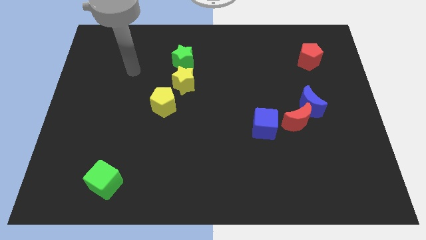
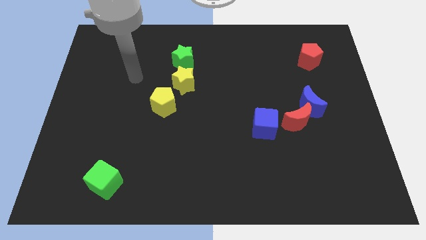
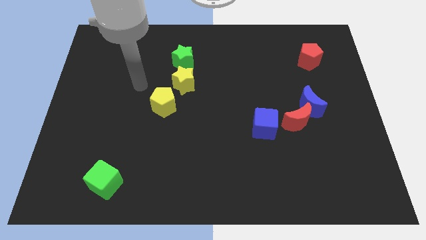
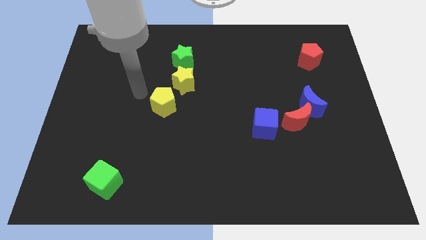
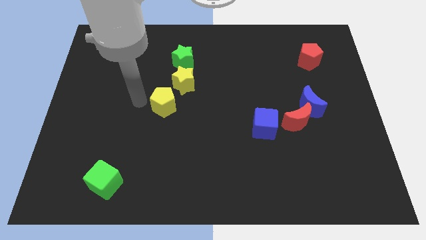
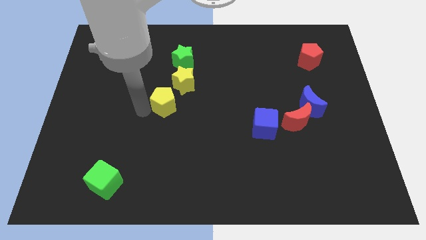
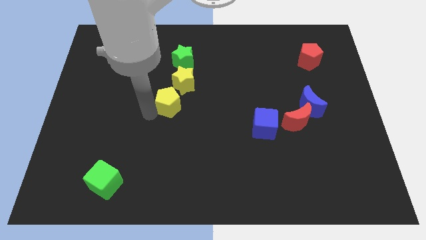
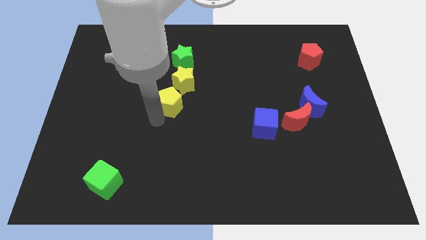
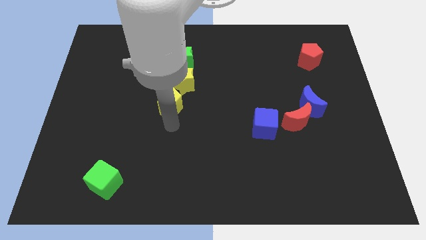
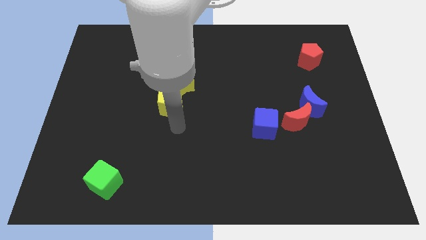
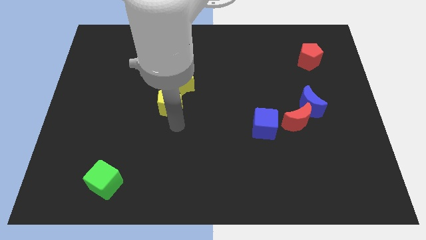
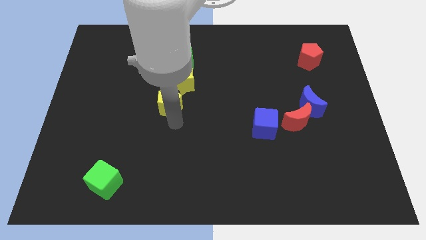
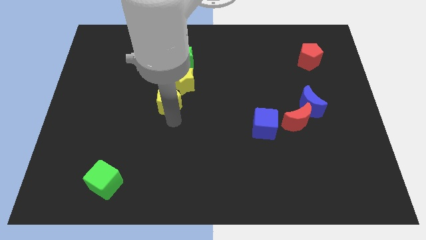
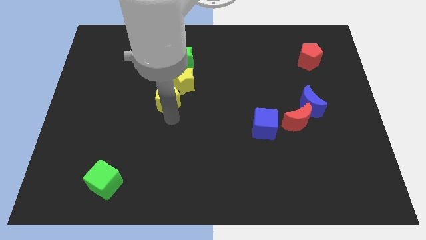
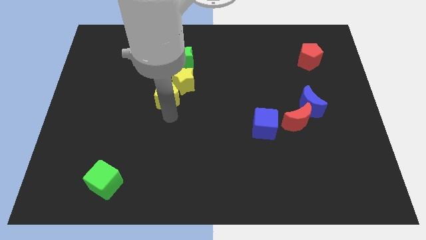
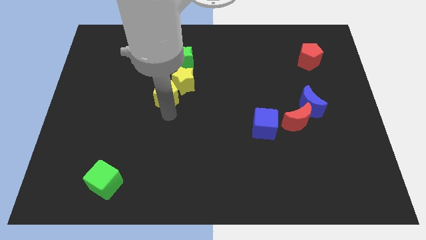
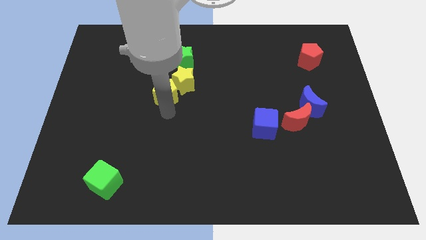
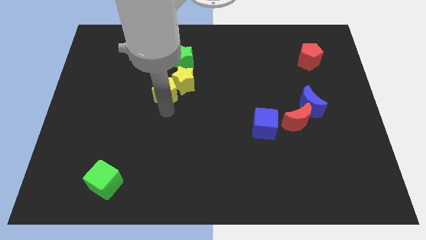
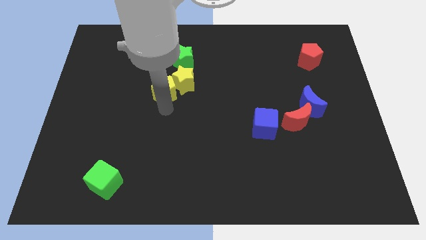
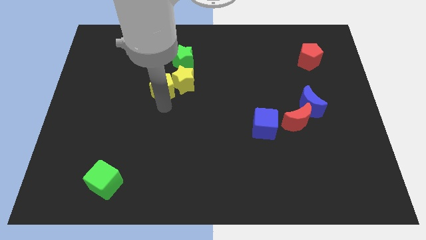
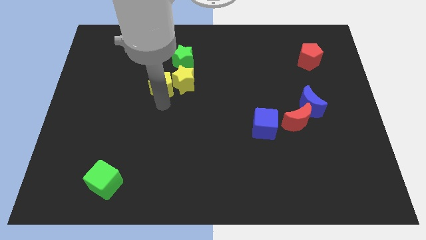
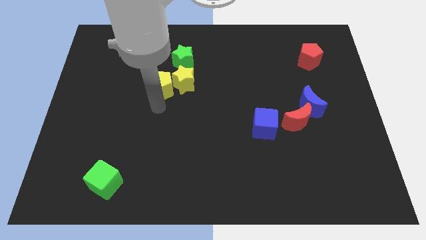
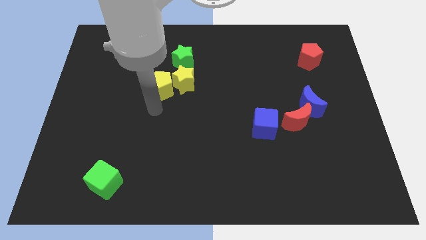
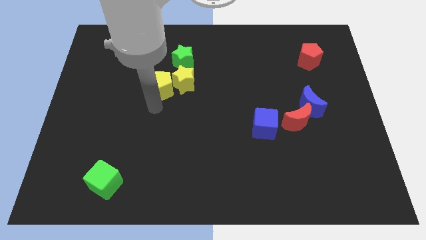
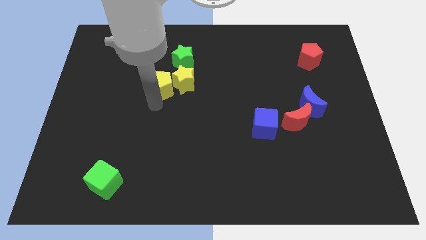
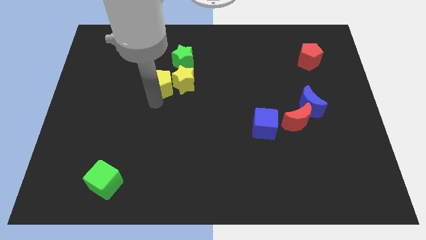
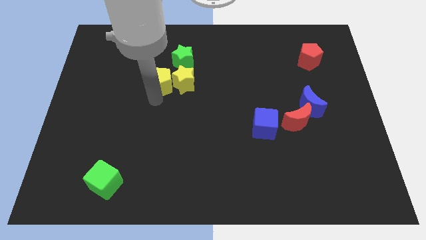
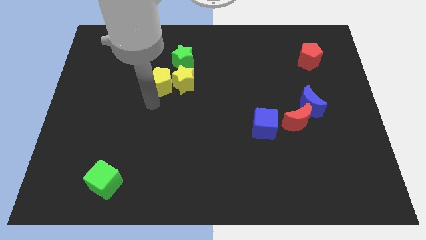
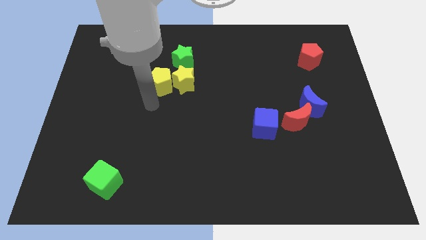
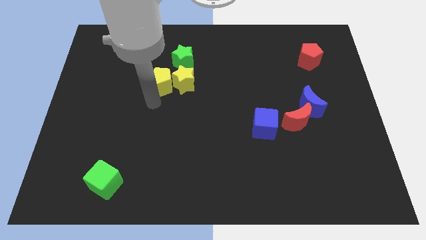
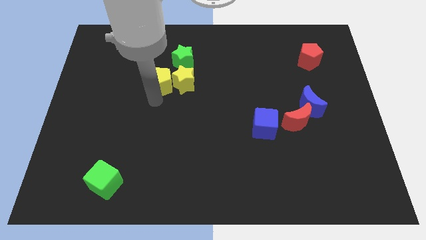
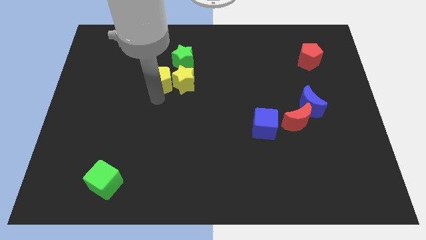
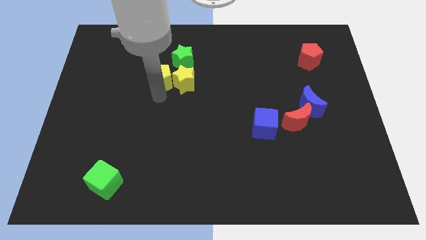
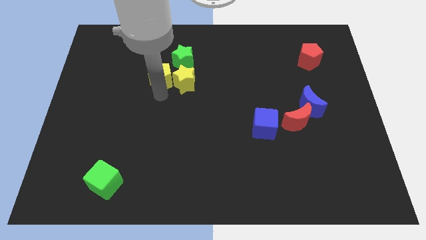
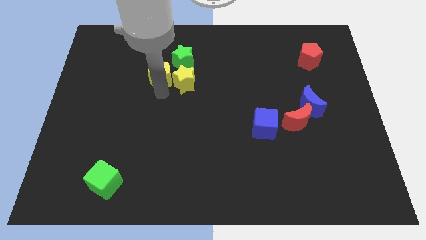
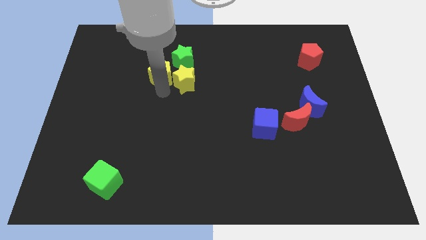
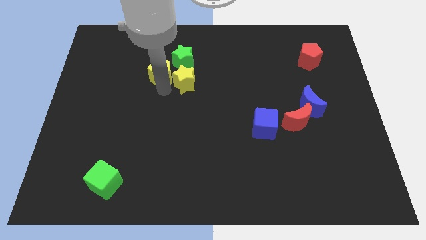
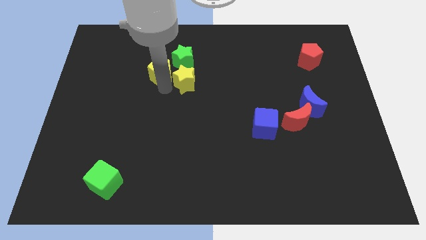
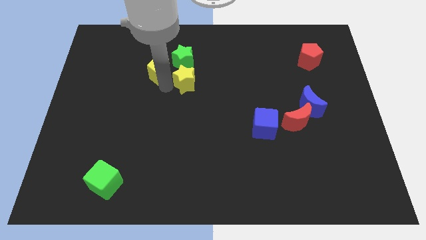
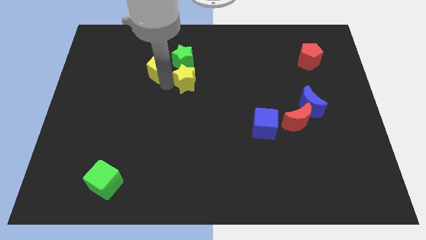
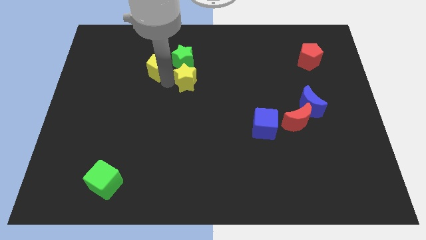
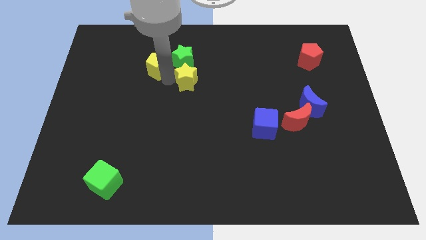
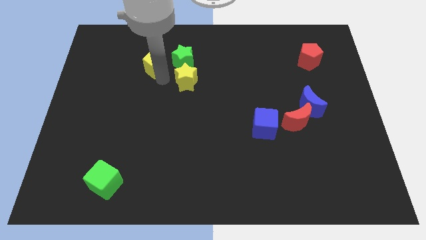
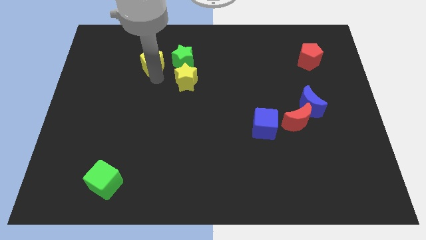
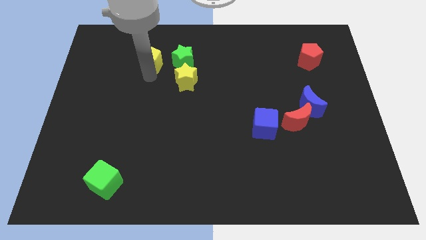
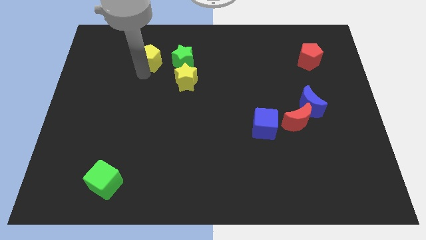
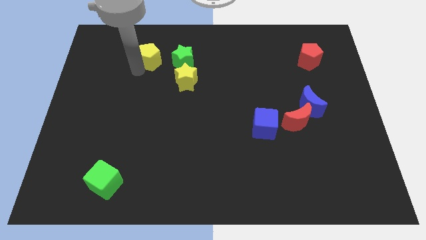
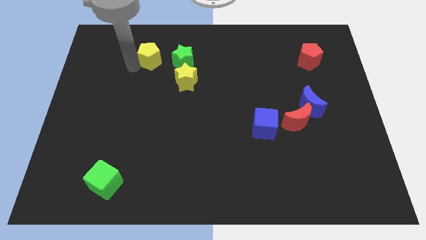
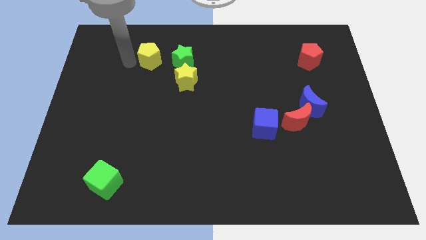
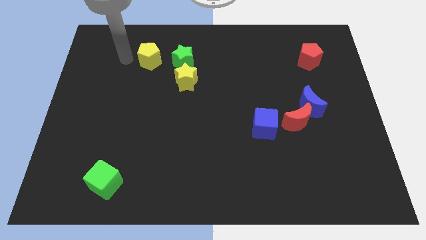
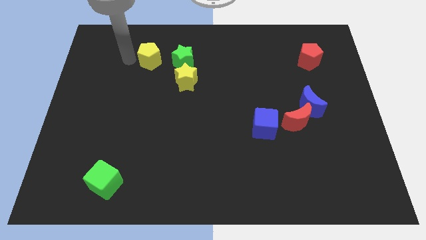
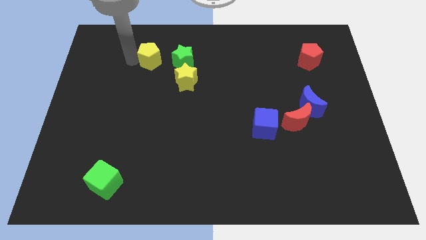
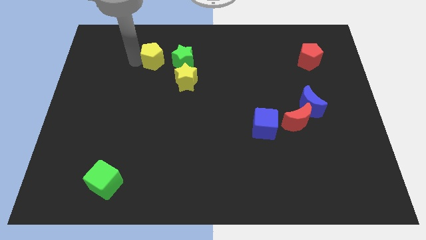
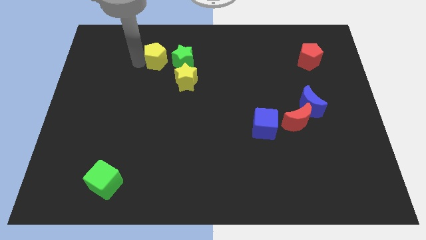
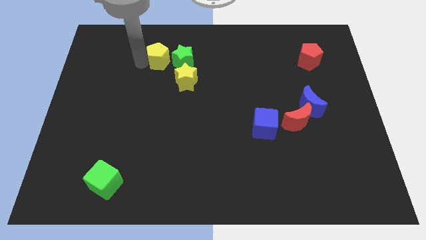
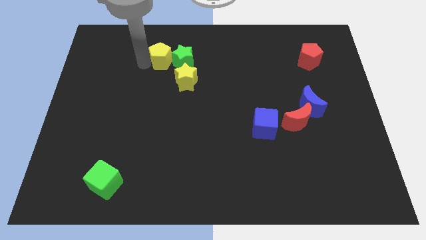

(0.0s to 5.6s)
put the yellow pentagon towards the green star

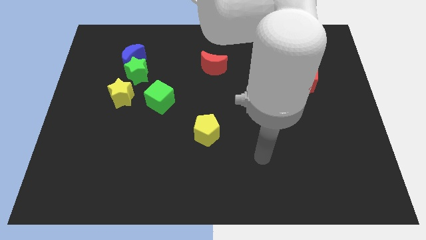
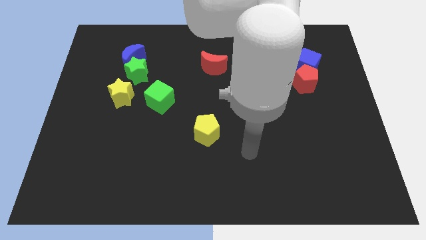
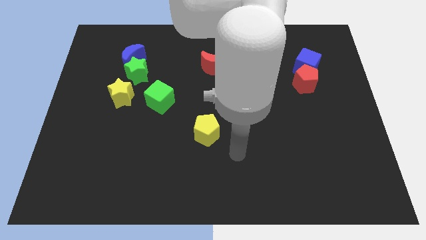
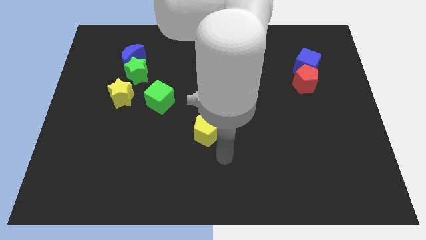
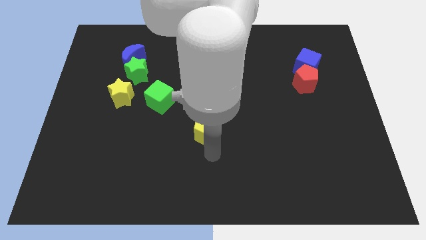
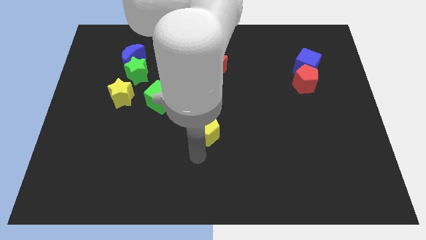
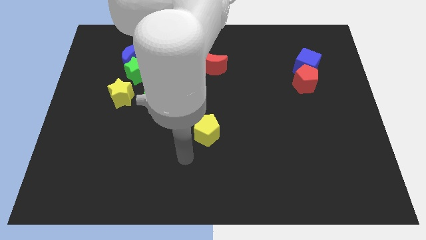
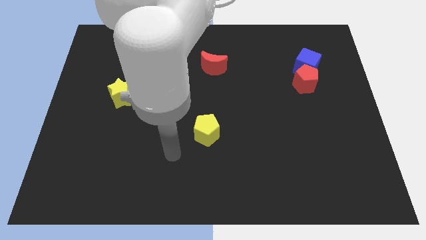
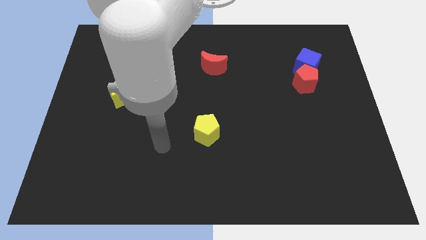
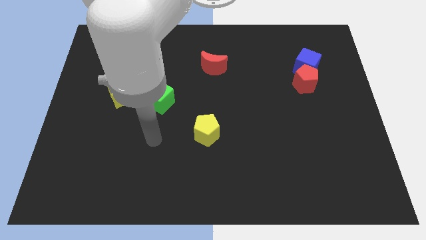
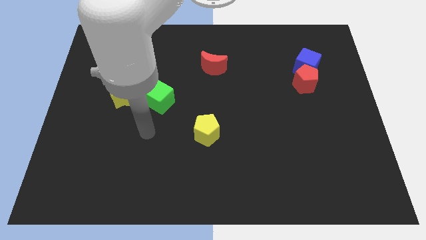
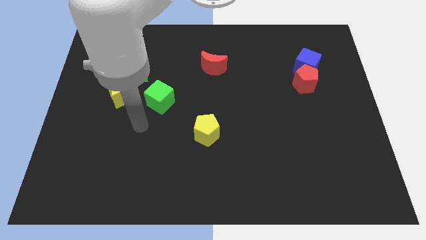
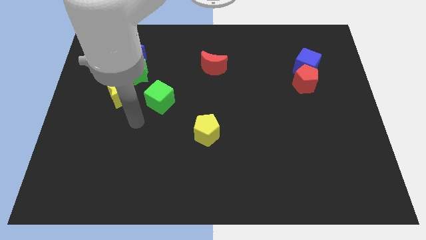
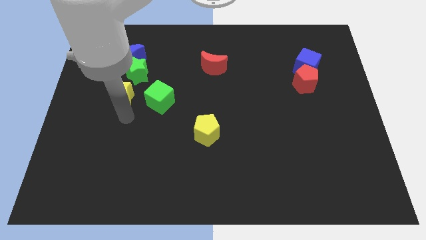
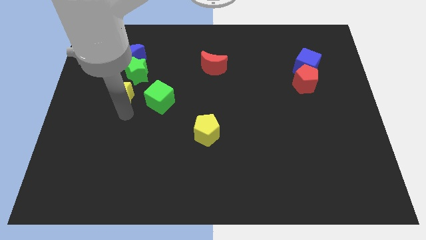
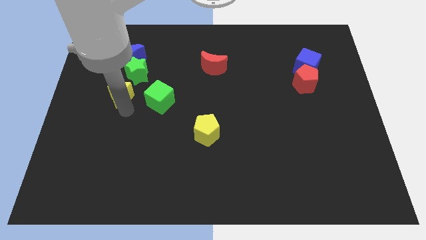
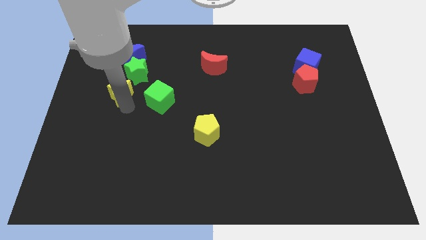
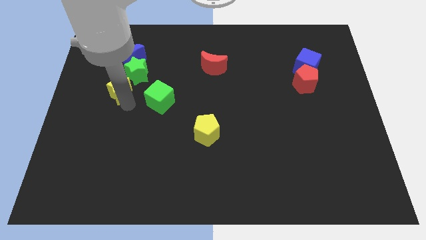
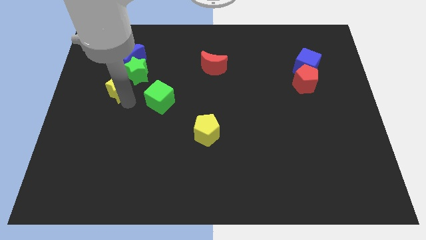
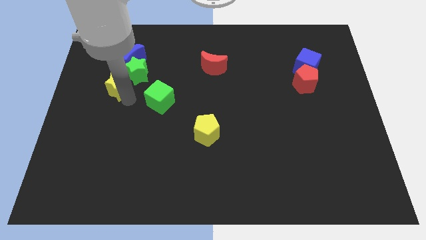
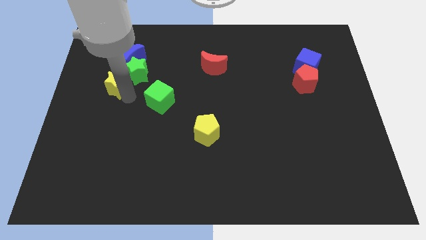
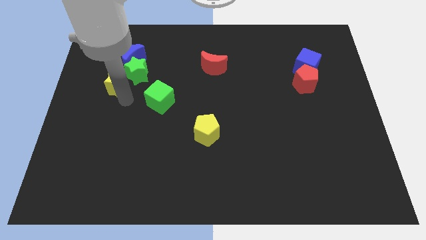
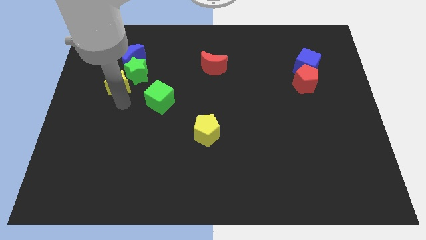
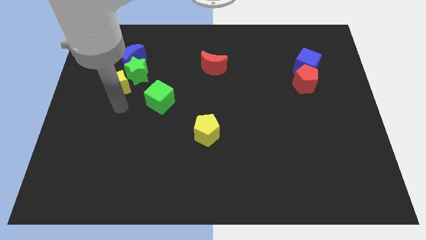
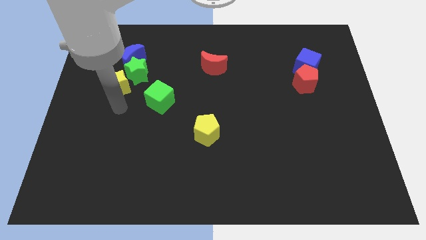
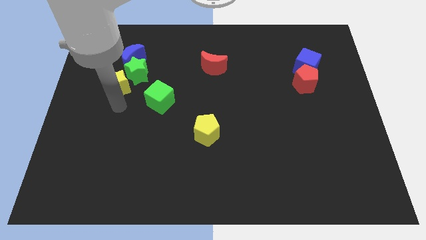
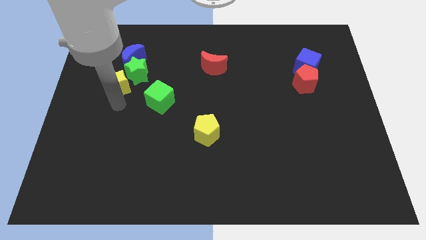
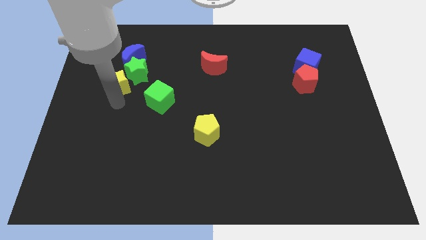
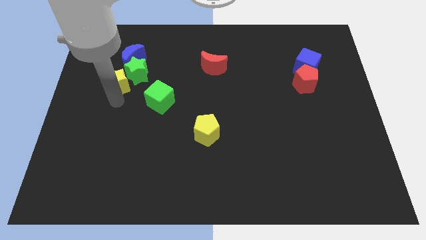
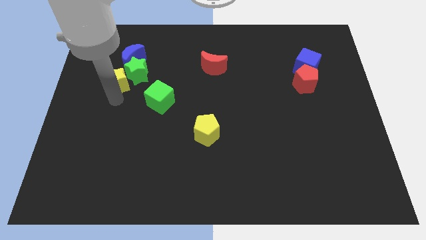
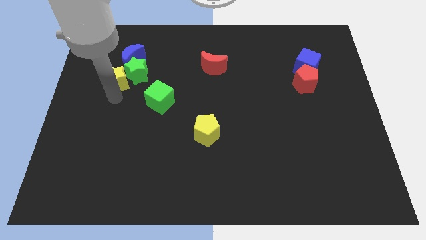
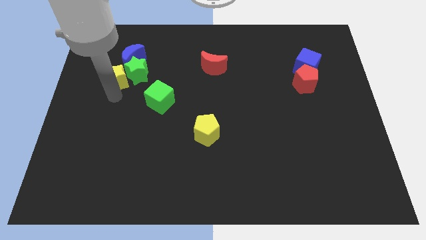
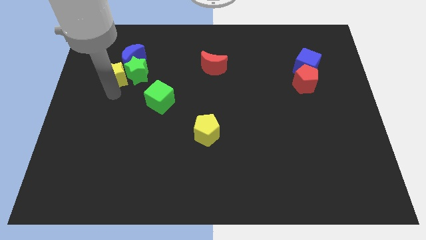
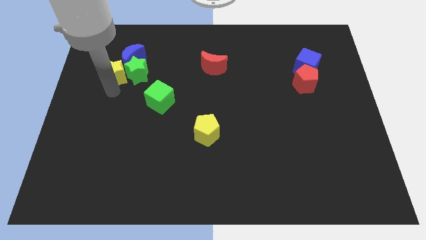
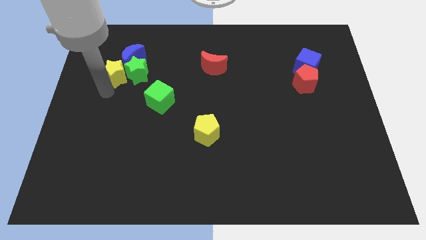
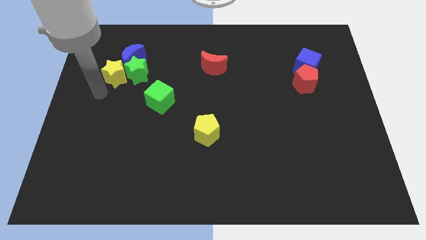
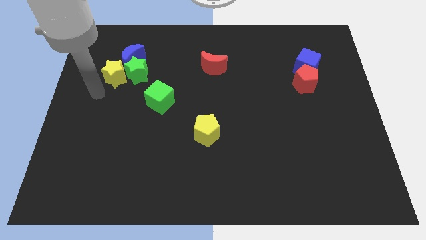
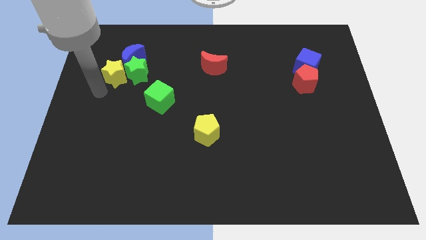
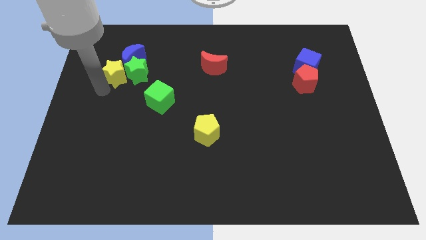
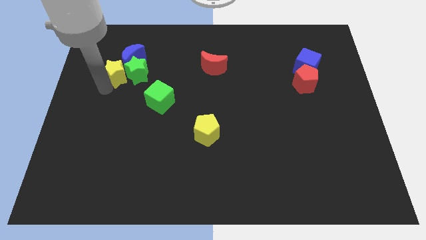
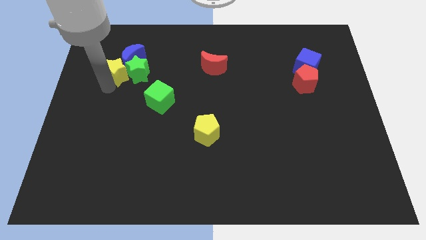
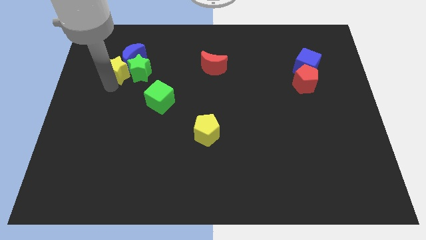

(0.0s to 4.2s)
move the yellow star close to the blue moon
